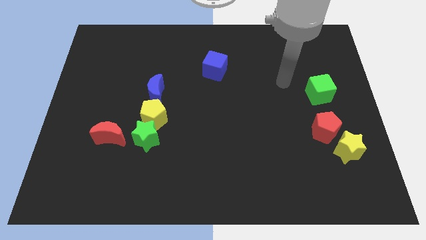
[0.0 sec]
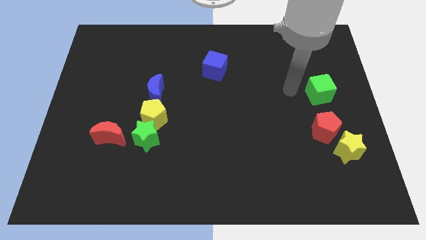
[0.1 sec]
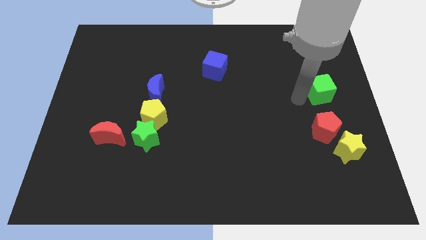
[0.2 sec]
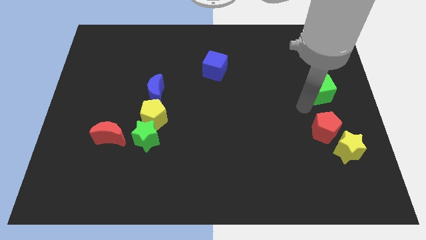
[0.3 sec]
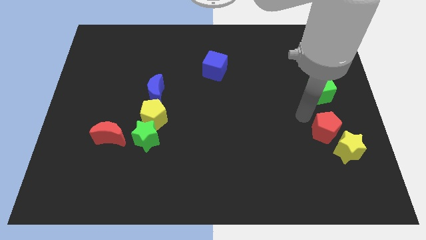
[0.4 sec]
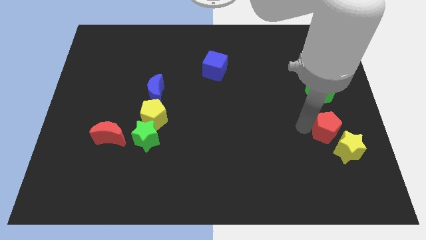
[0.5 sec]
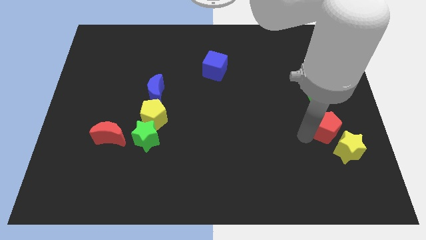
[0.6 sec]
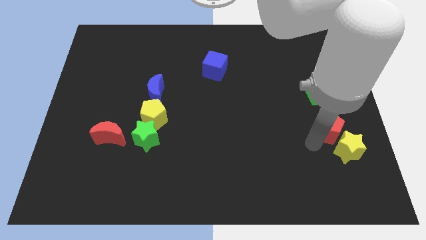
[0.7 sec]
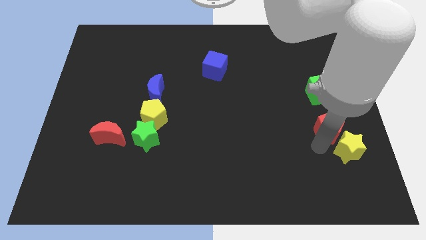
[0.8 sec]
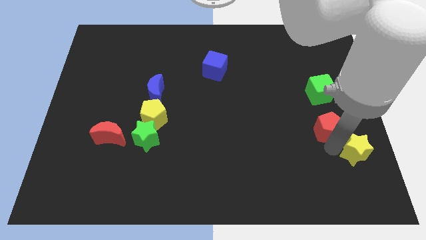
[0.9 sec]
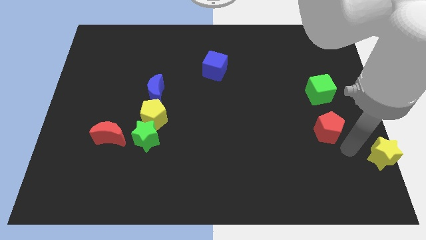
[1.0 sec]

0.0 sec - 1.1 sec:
move the red pentagon away from the yellow star

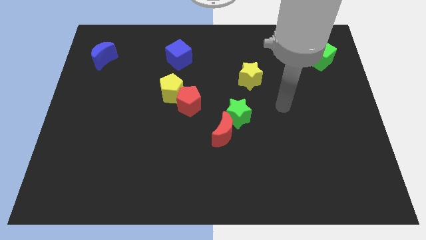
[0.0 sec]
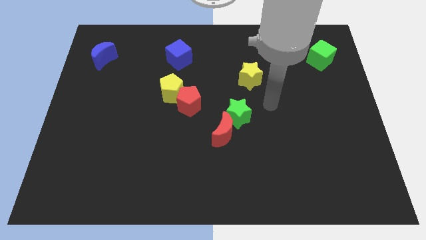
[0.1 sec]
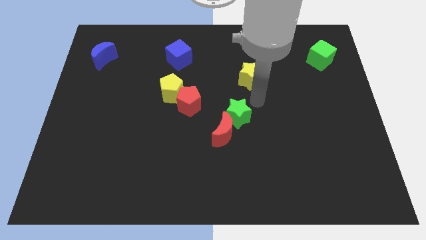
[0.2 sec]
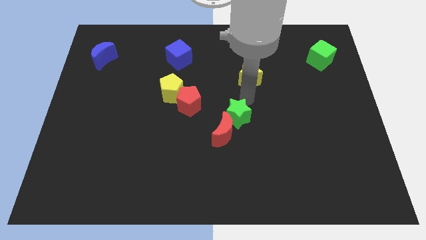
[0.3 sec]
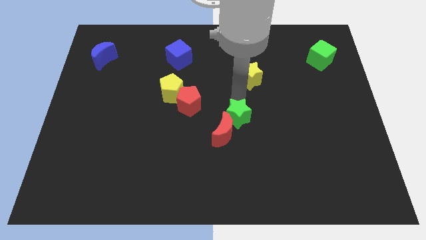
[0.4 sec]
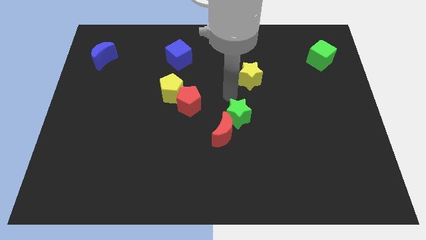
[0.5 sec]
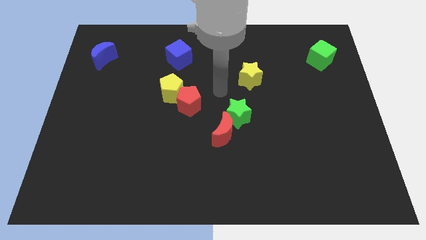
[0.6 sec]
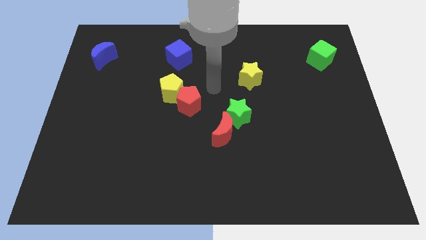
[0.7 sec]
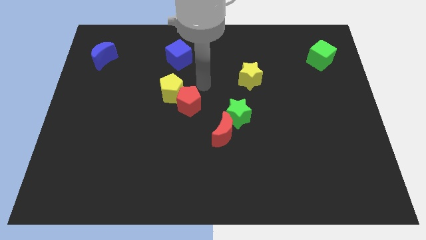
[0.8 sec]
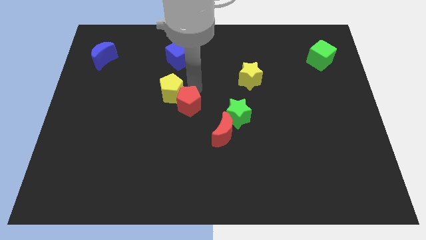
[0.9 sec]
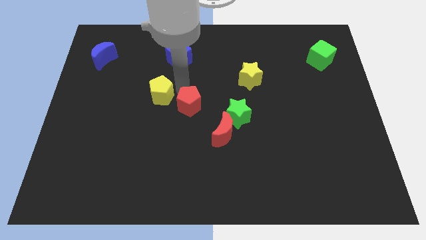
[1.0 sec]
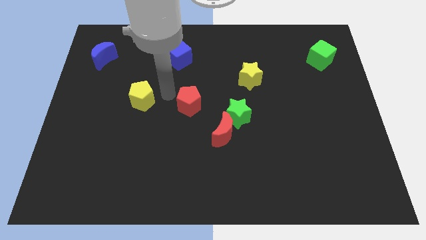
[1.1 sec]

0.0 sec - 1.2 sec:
pull the red pentagon apart from the yellow pentagon

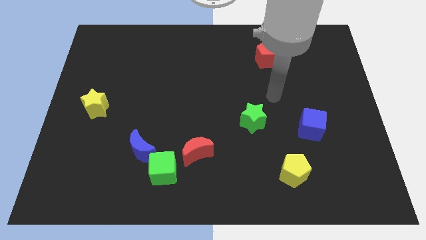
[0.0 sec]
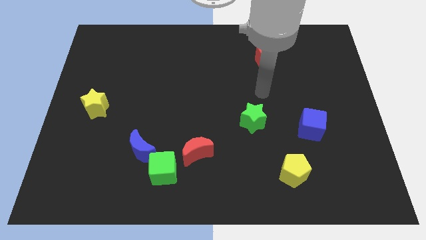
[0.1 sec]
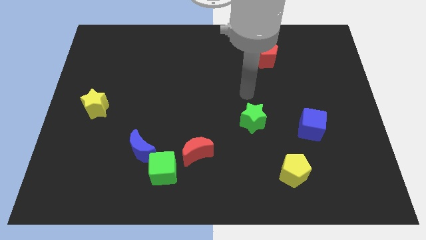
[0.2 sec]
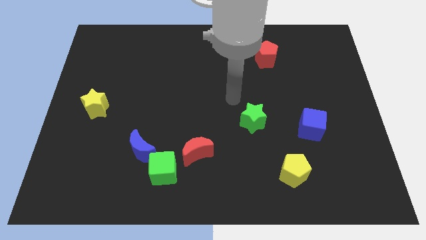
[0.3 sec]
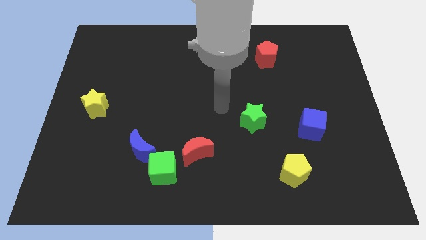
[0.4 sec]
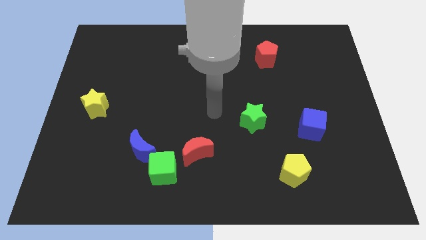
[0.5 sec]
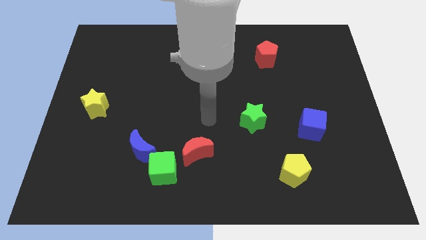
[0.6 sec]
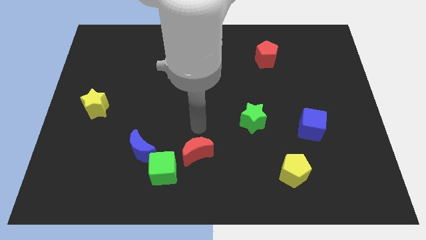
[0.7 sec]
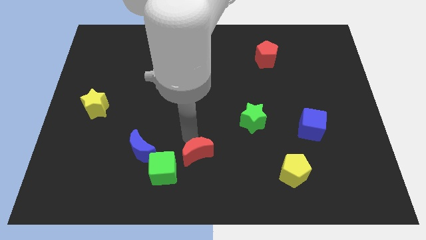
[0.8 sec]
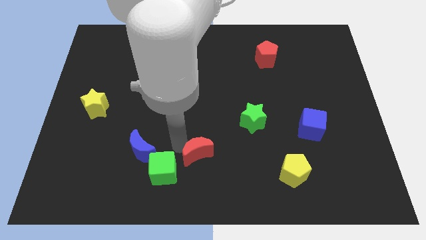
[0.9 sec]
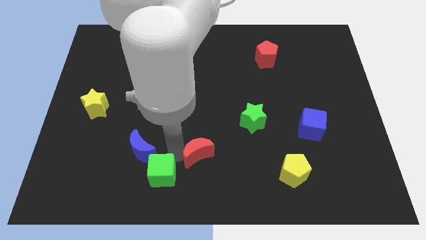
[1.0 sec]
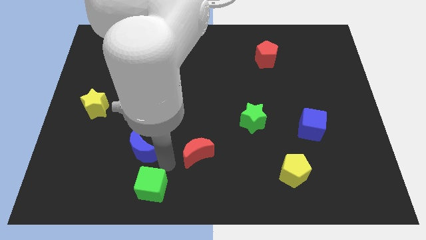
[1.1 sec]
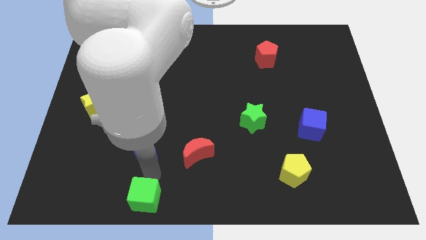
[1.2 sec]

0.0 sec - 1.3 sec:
move the blue moon away from the green cube

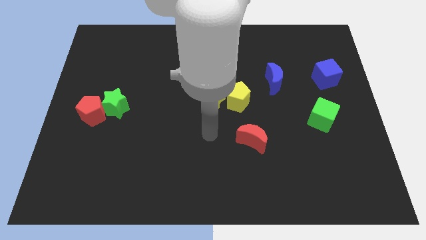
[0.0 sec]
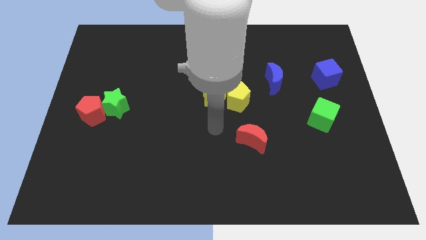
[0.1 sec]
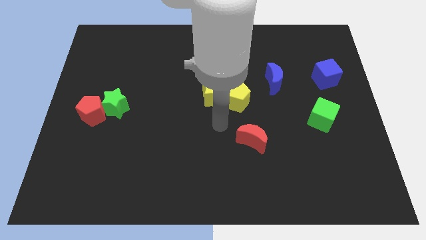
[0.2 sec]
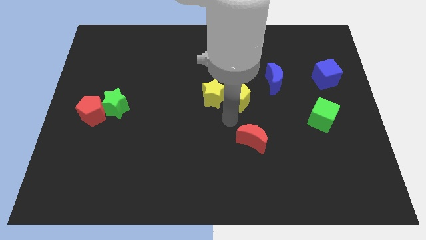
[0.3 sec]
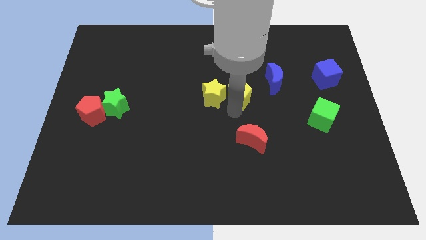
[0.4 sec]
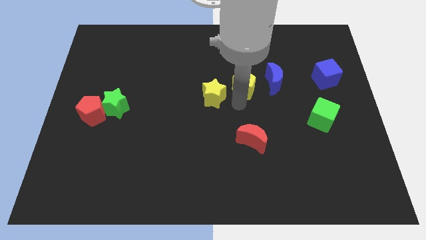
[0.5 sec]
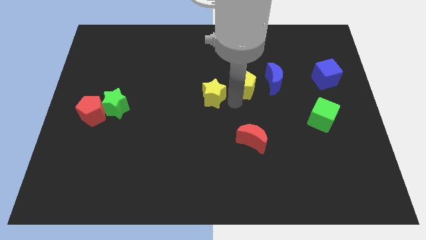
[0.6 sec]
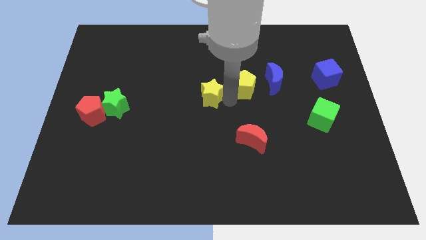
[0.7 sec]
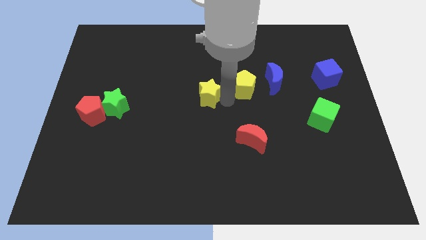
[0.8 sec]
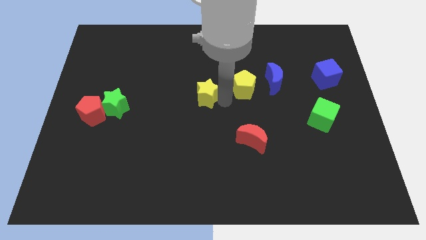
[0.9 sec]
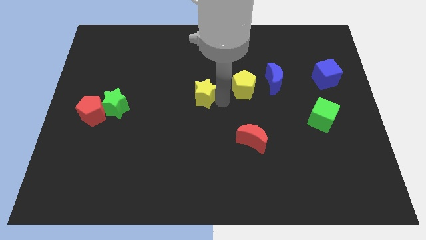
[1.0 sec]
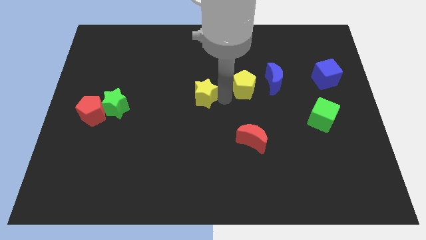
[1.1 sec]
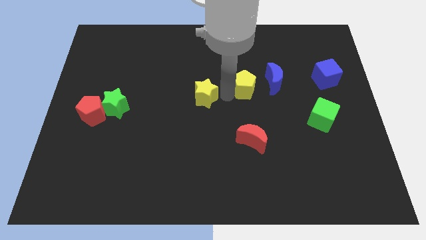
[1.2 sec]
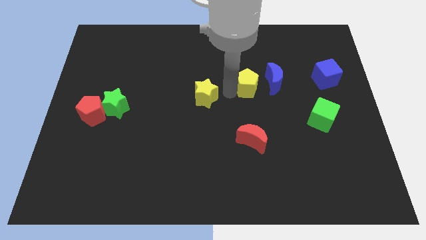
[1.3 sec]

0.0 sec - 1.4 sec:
pull the yellow star apart from the yellow pentagon

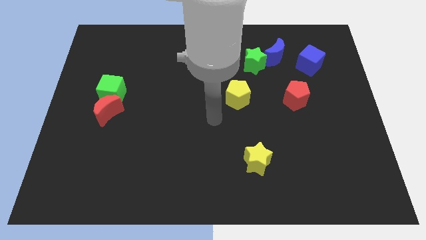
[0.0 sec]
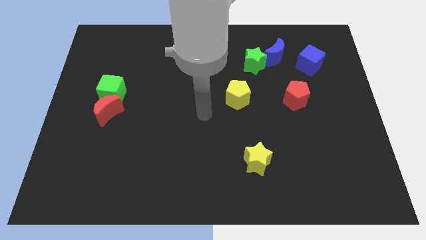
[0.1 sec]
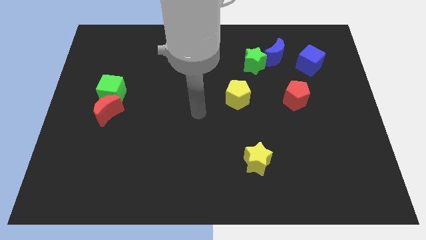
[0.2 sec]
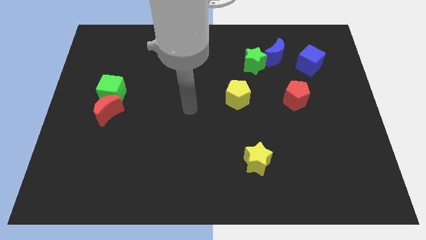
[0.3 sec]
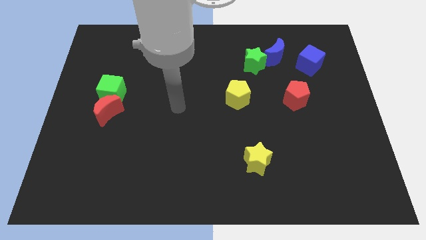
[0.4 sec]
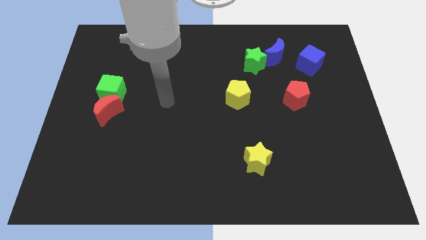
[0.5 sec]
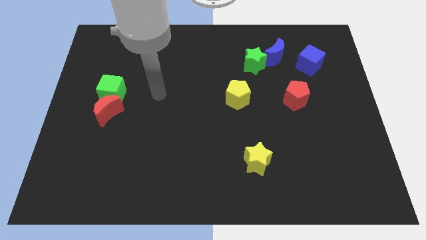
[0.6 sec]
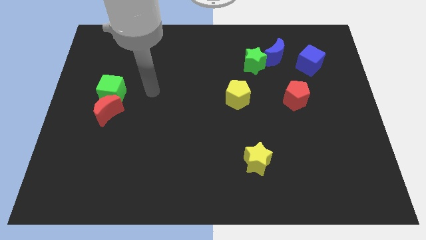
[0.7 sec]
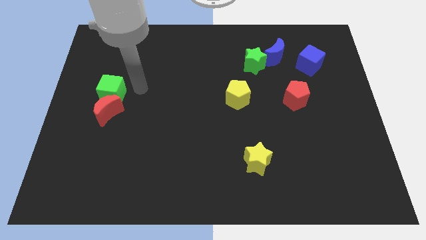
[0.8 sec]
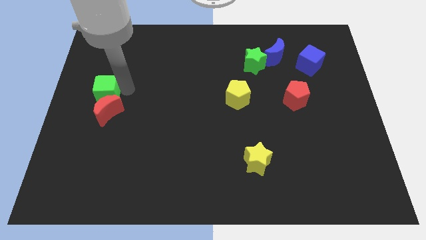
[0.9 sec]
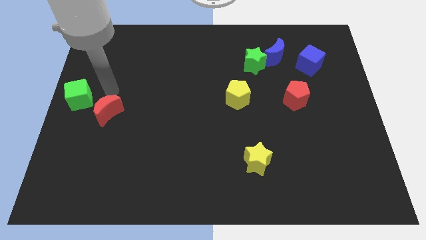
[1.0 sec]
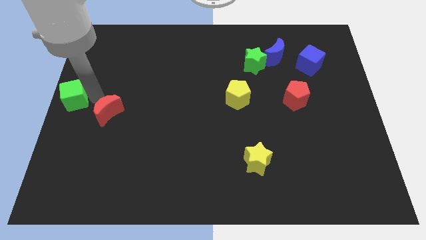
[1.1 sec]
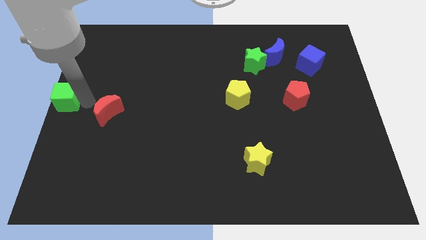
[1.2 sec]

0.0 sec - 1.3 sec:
pull the red moon apart from the green cube

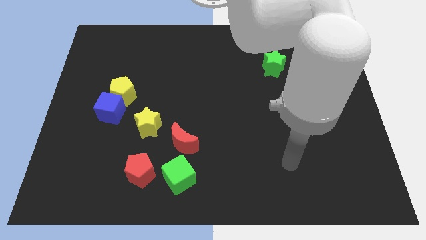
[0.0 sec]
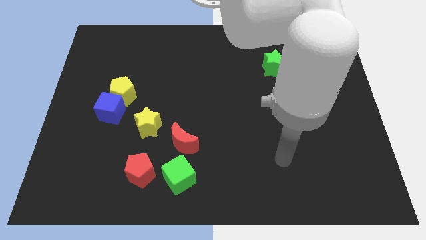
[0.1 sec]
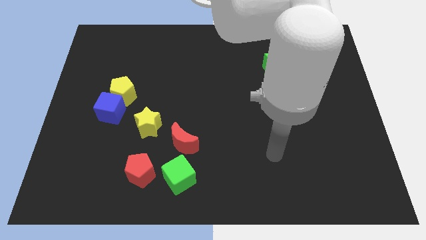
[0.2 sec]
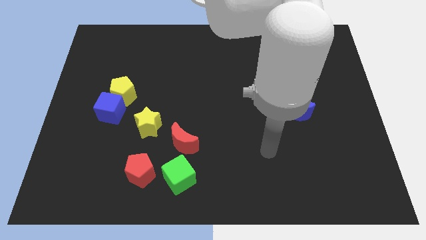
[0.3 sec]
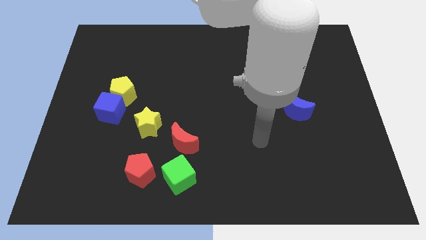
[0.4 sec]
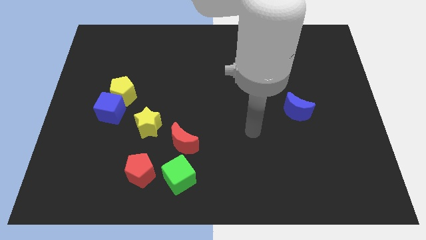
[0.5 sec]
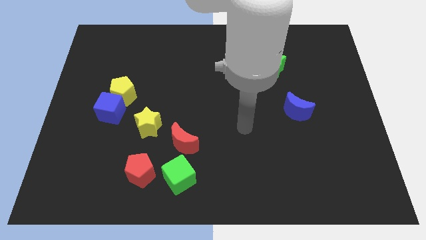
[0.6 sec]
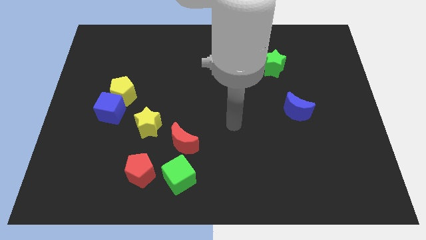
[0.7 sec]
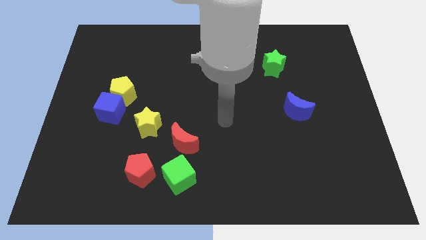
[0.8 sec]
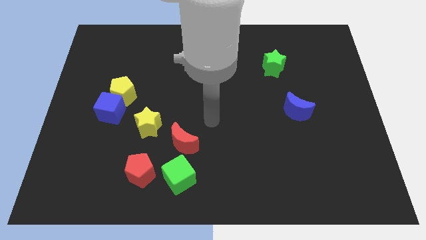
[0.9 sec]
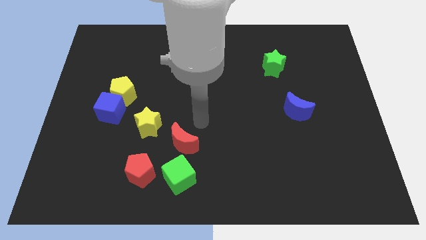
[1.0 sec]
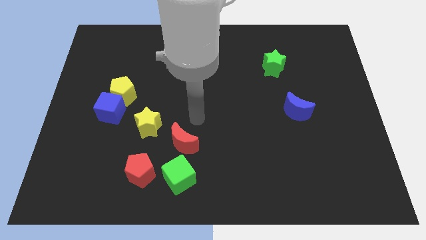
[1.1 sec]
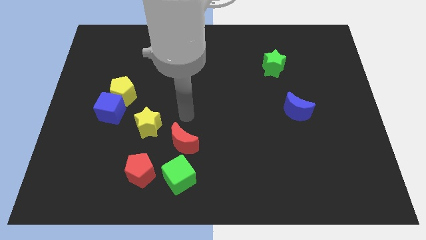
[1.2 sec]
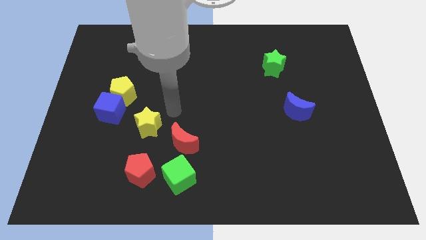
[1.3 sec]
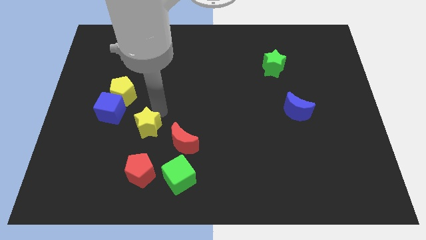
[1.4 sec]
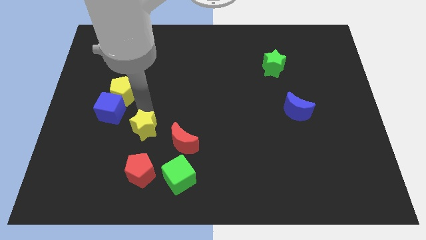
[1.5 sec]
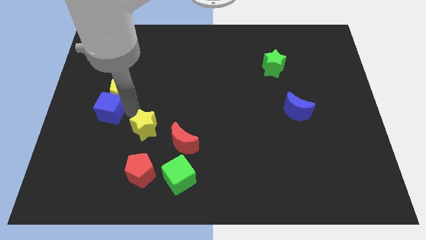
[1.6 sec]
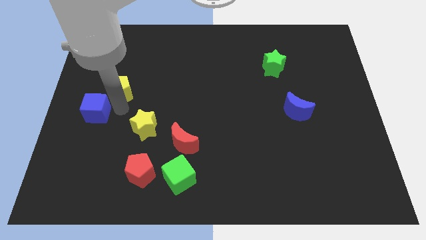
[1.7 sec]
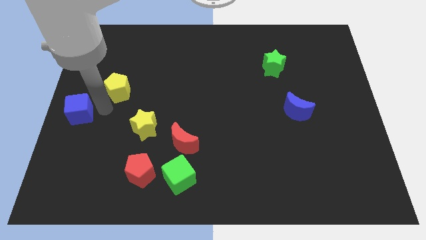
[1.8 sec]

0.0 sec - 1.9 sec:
separate the yellow pentagon from the blue cube

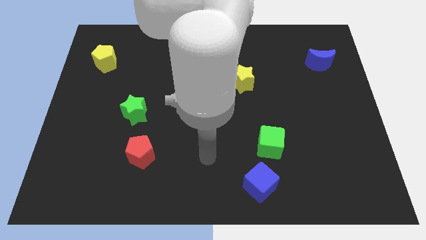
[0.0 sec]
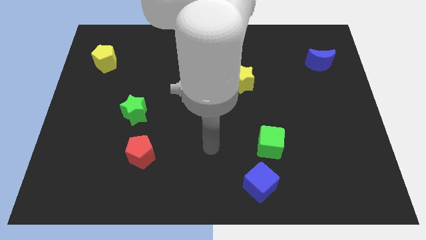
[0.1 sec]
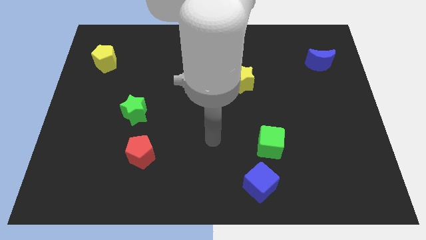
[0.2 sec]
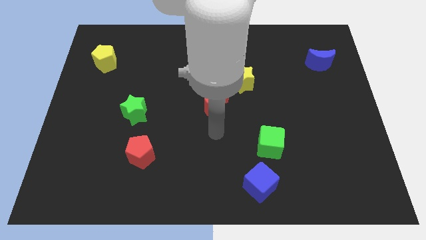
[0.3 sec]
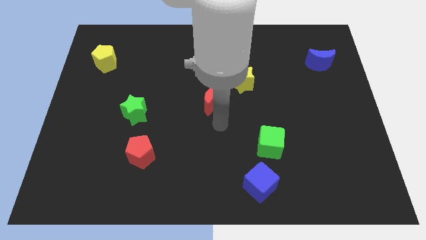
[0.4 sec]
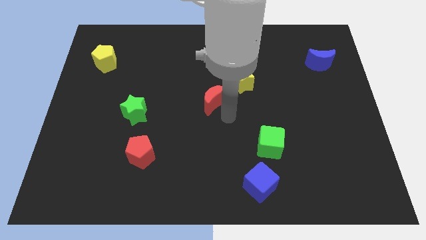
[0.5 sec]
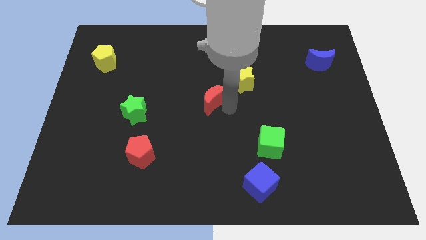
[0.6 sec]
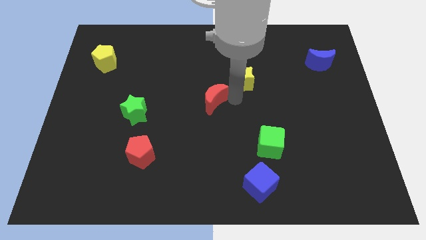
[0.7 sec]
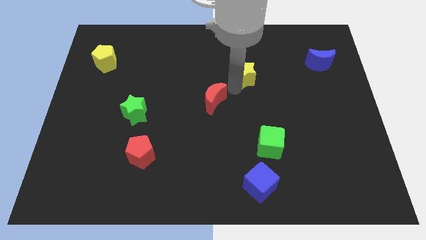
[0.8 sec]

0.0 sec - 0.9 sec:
pull the red moon apart from the yellow star

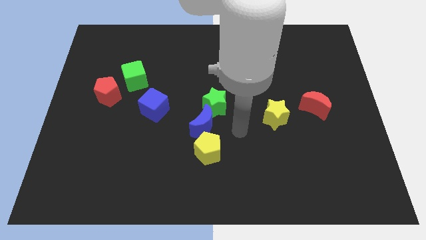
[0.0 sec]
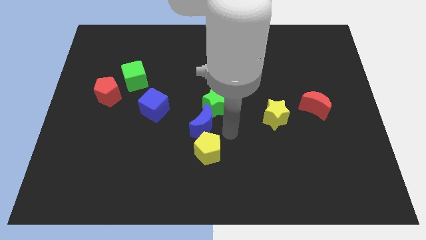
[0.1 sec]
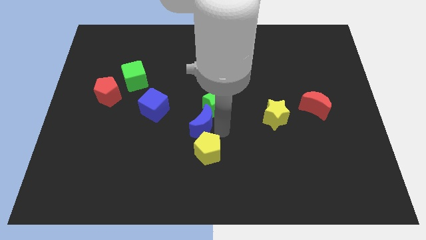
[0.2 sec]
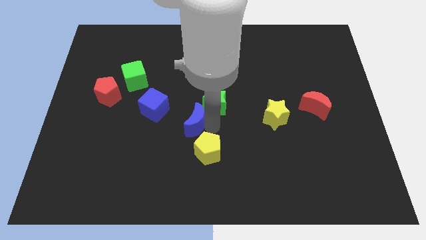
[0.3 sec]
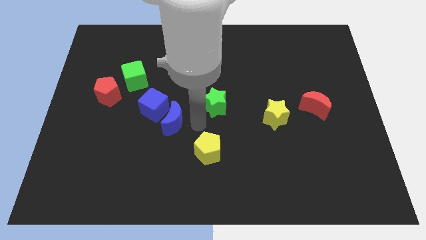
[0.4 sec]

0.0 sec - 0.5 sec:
pull the green star apart from the blue moon
